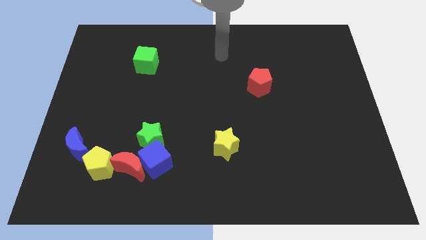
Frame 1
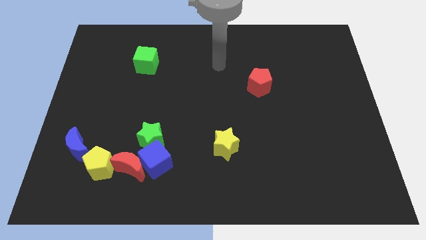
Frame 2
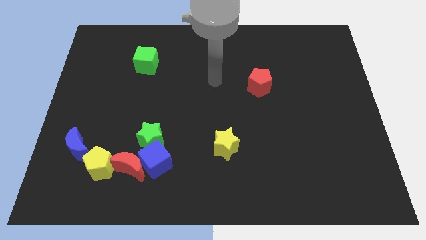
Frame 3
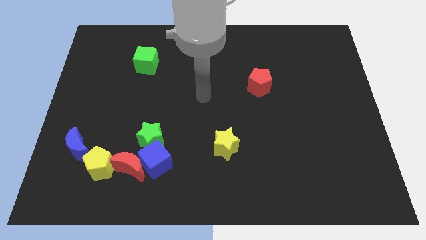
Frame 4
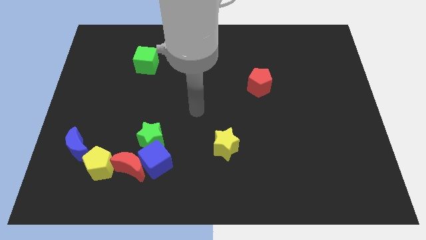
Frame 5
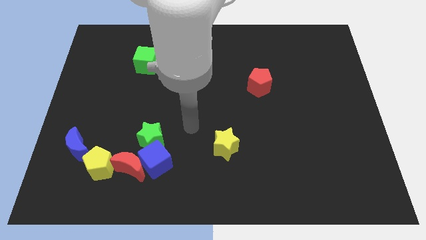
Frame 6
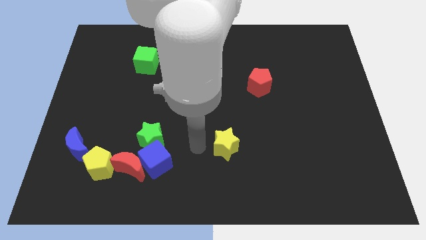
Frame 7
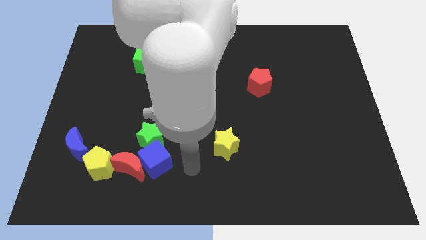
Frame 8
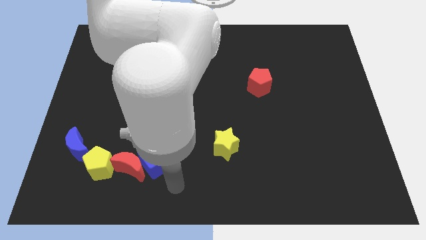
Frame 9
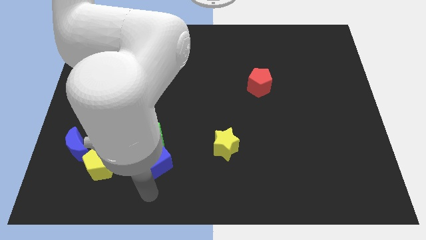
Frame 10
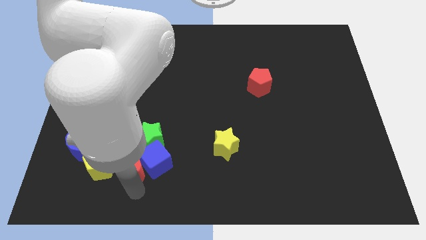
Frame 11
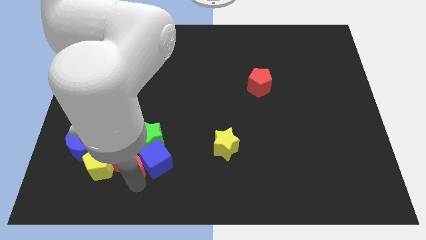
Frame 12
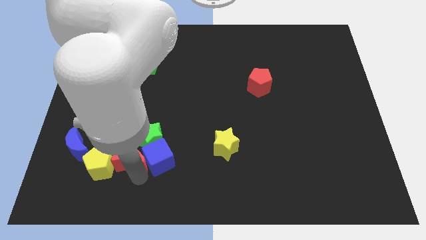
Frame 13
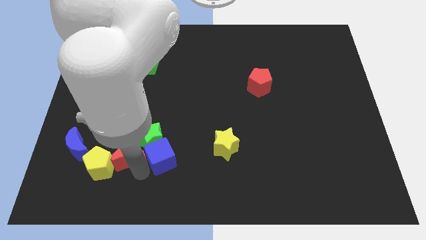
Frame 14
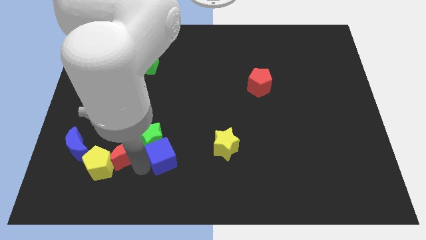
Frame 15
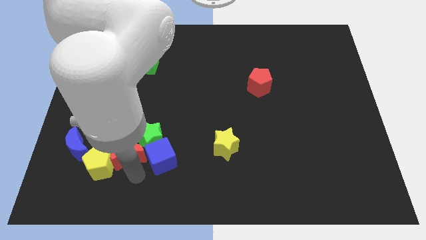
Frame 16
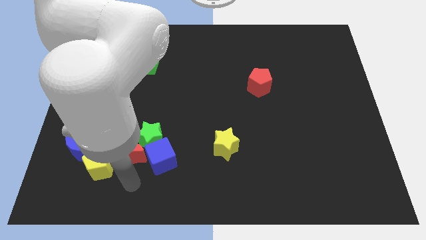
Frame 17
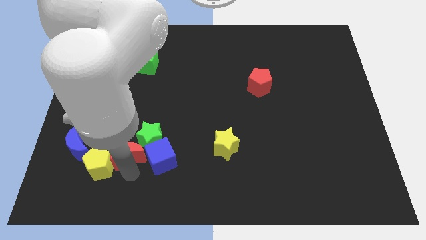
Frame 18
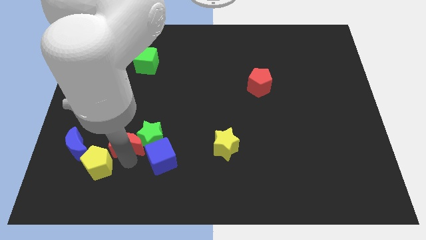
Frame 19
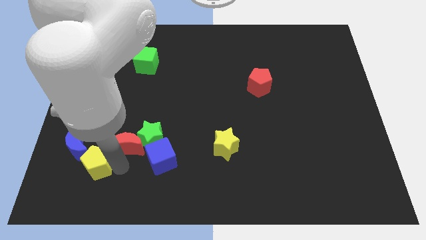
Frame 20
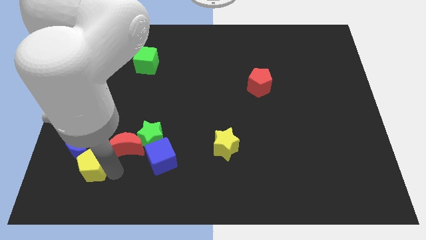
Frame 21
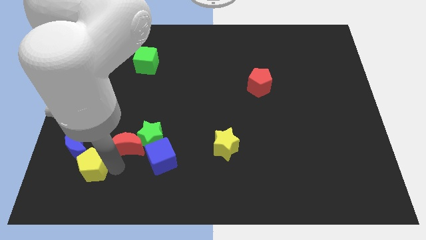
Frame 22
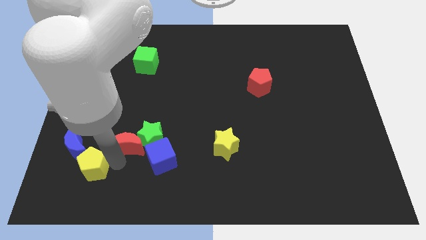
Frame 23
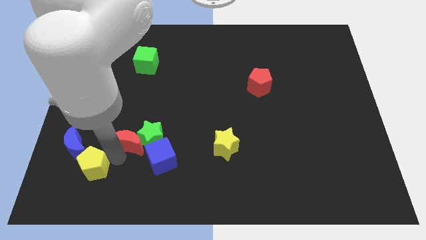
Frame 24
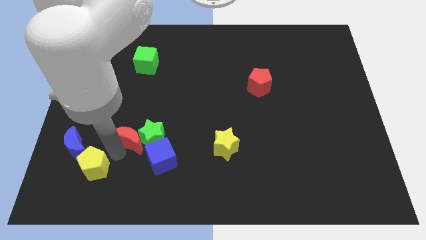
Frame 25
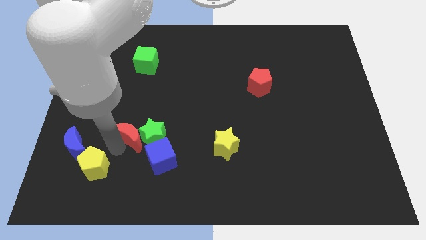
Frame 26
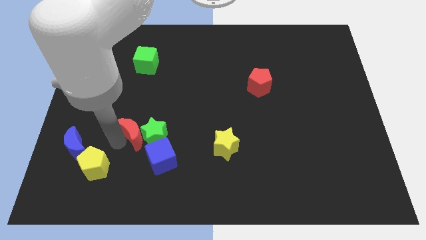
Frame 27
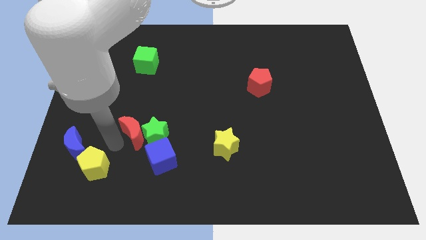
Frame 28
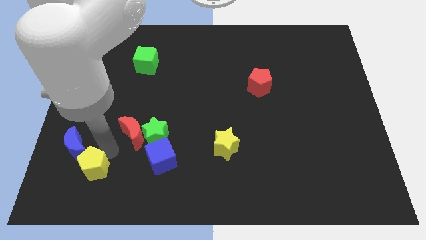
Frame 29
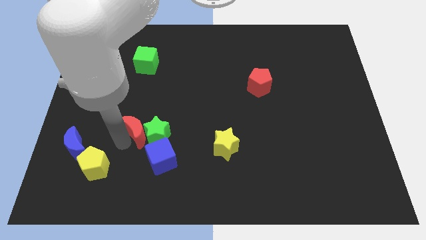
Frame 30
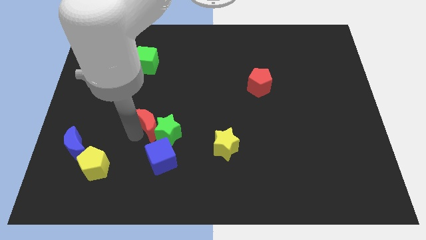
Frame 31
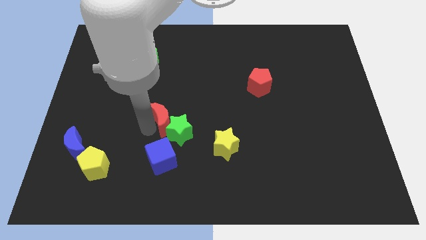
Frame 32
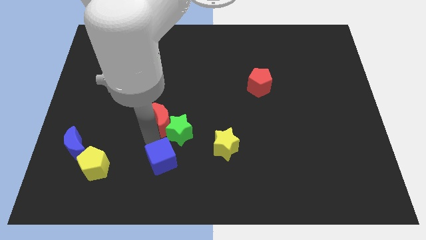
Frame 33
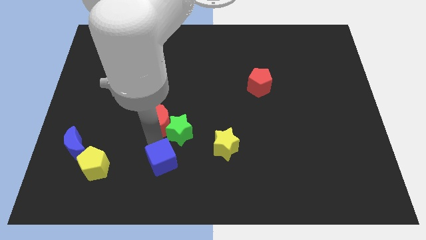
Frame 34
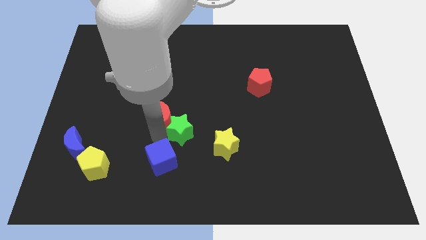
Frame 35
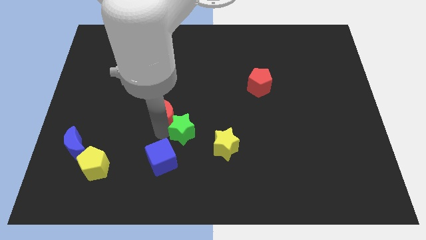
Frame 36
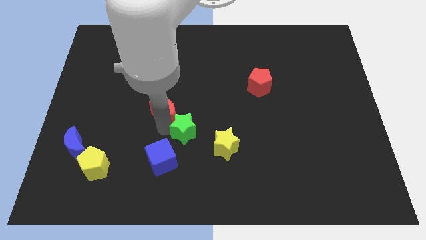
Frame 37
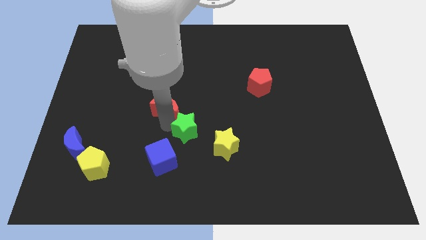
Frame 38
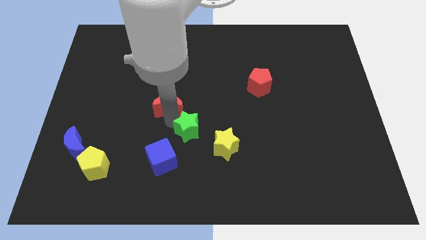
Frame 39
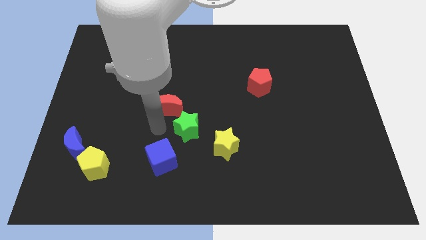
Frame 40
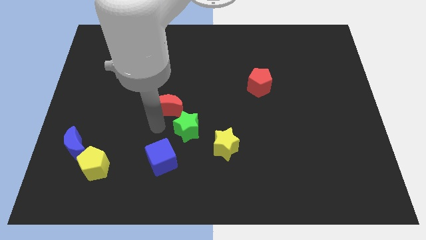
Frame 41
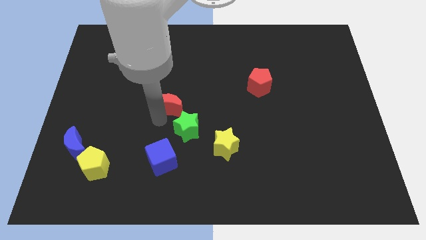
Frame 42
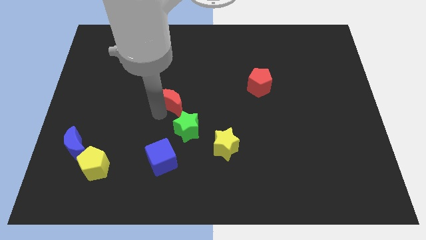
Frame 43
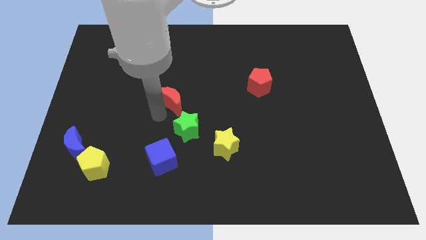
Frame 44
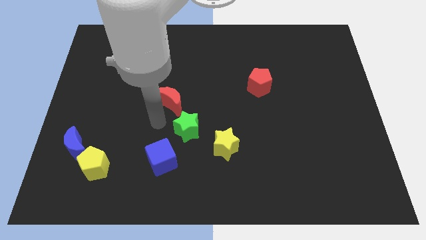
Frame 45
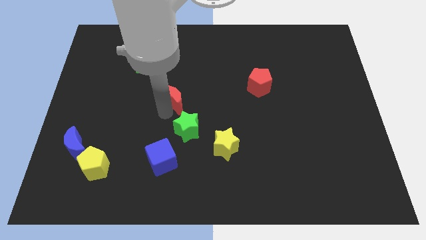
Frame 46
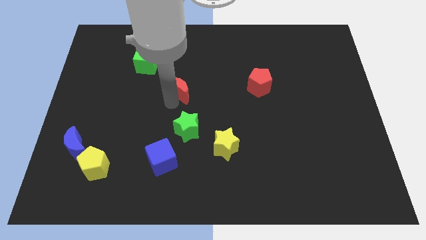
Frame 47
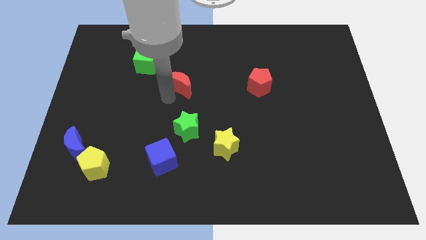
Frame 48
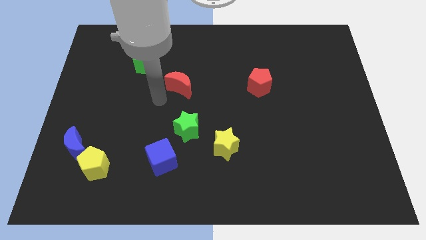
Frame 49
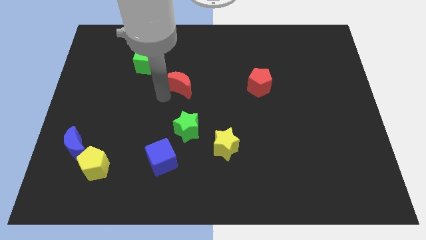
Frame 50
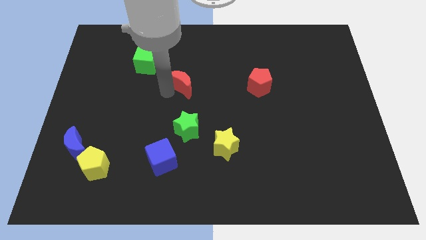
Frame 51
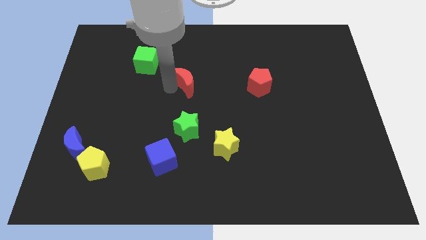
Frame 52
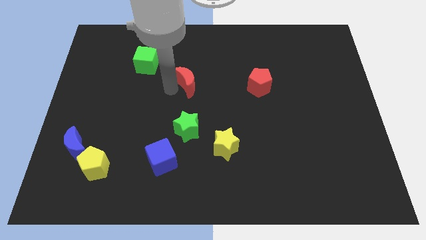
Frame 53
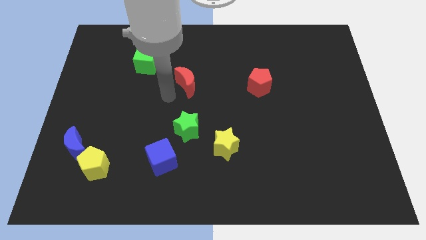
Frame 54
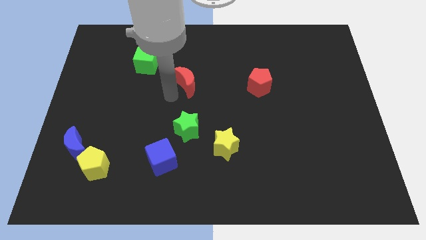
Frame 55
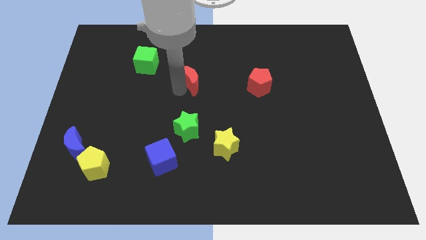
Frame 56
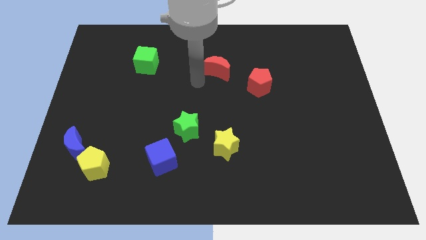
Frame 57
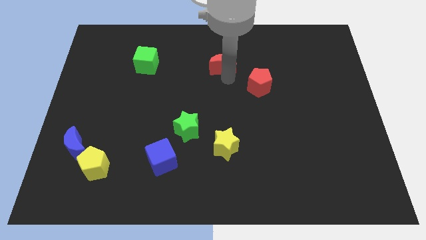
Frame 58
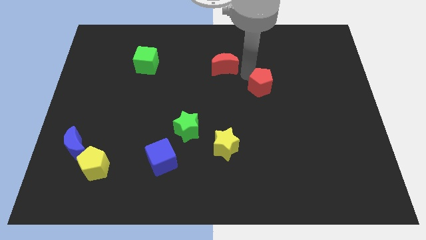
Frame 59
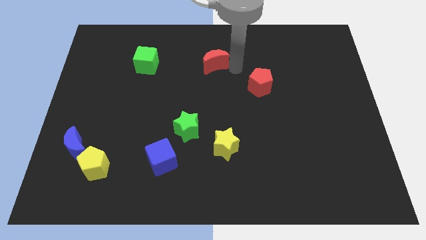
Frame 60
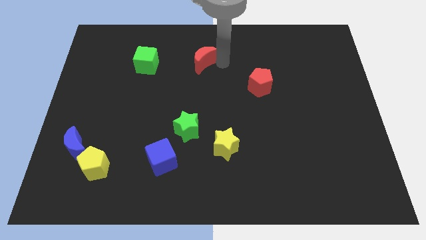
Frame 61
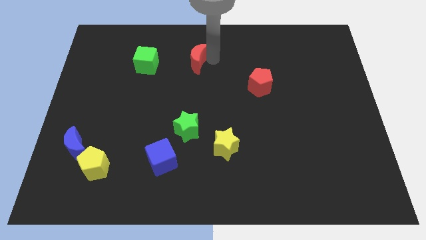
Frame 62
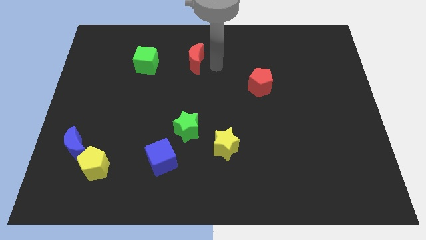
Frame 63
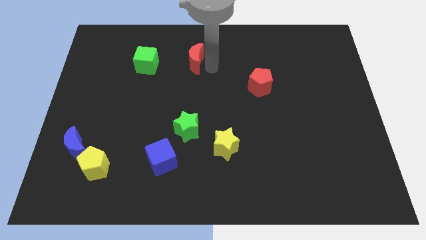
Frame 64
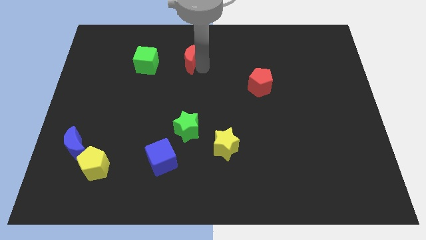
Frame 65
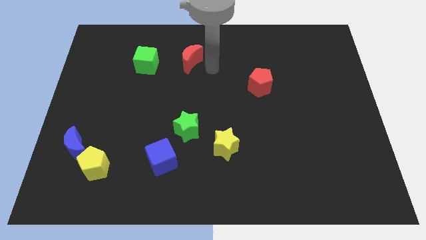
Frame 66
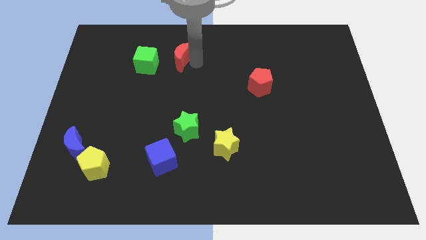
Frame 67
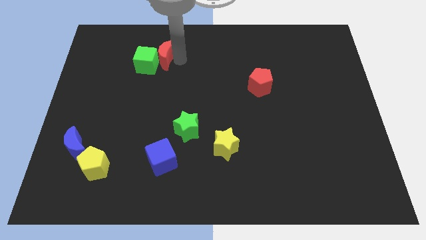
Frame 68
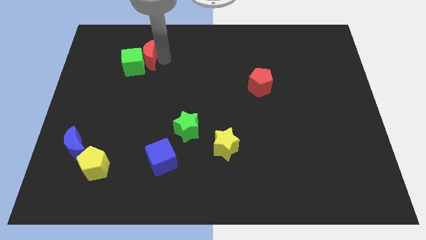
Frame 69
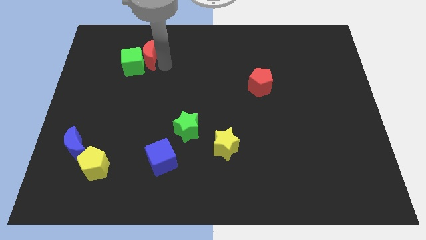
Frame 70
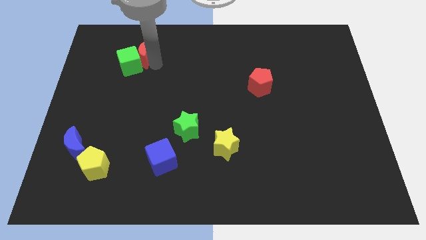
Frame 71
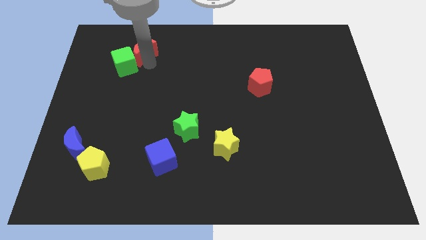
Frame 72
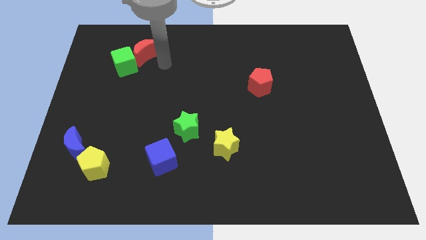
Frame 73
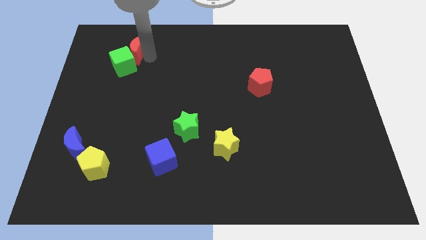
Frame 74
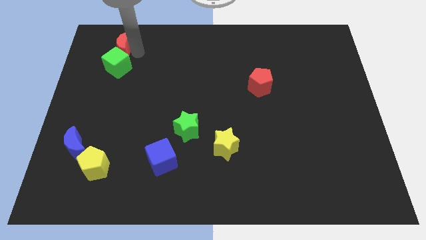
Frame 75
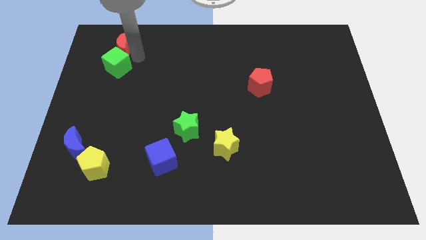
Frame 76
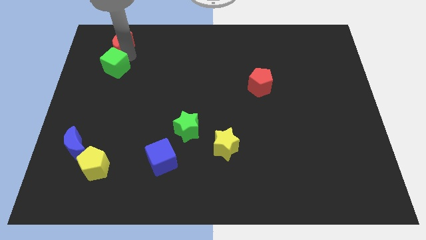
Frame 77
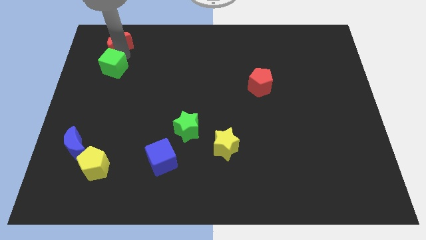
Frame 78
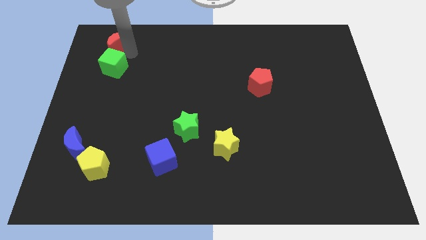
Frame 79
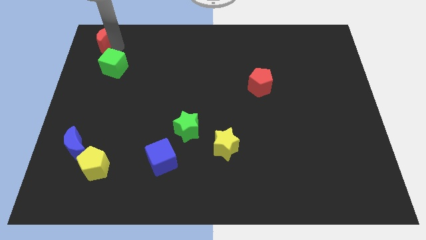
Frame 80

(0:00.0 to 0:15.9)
push the red moon to the top left of the board
